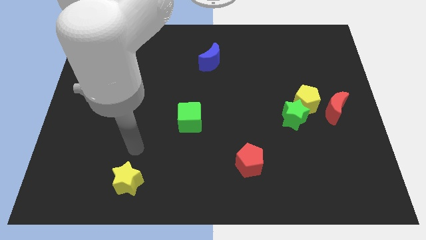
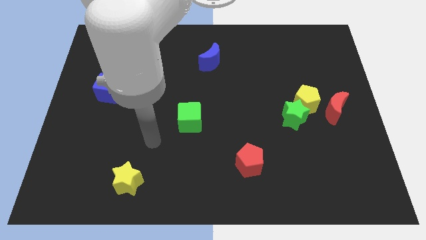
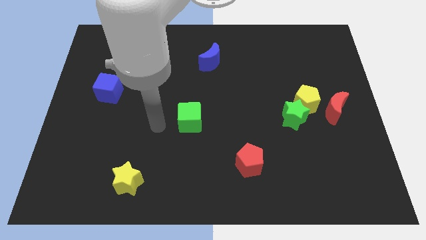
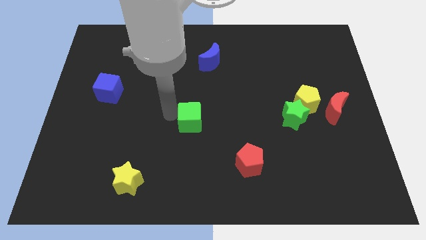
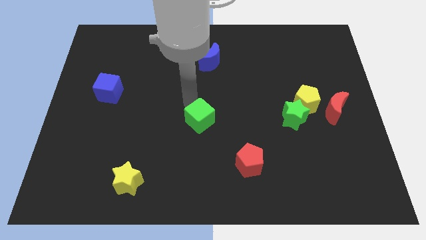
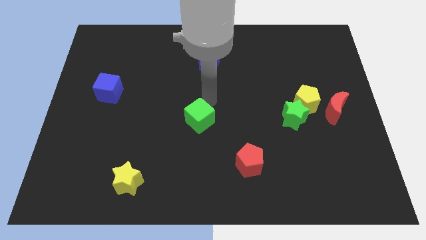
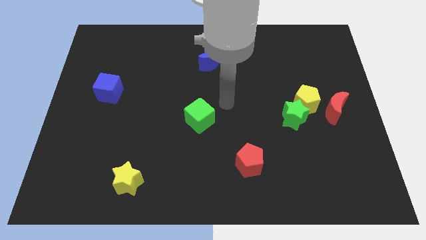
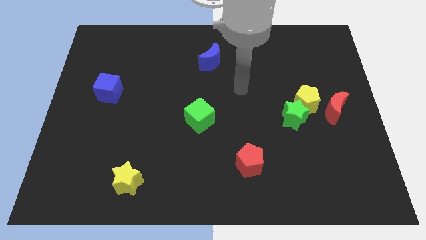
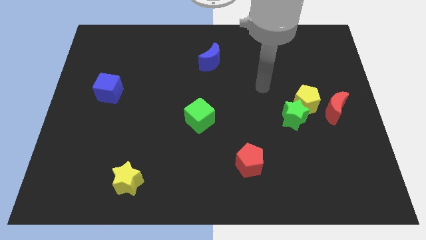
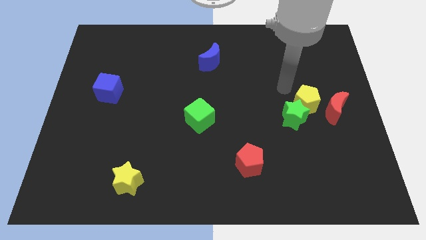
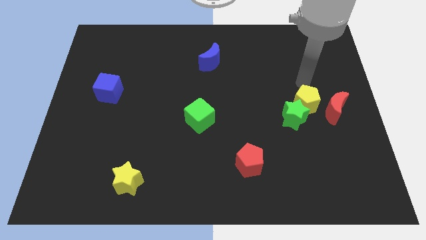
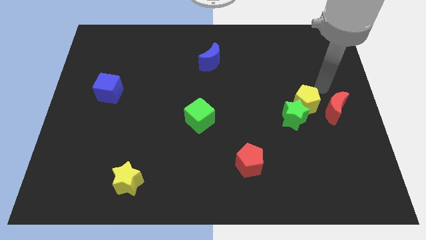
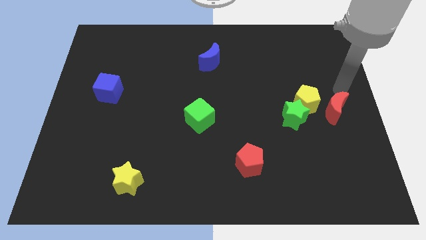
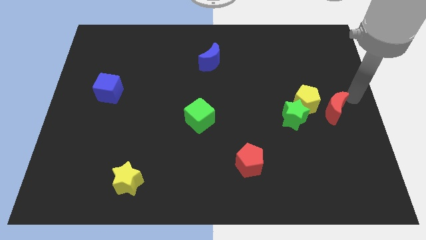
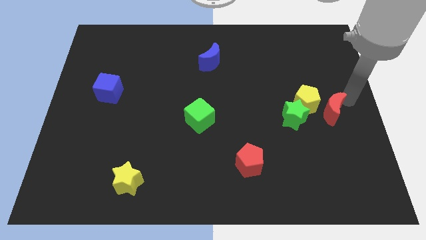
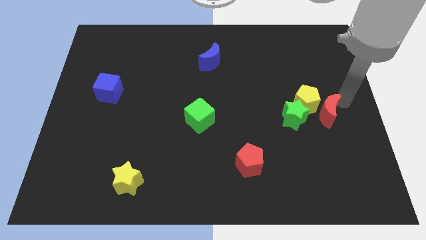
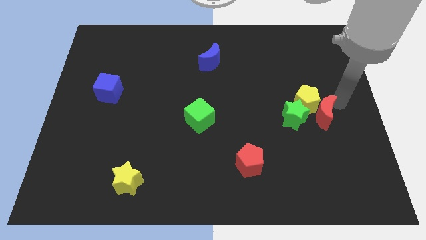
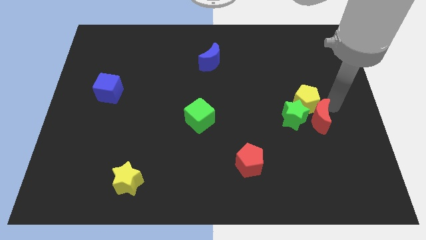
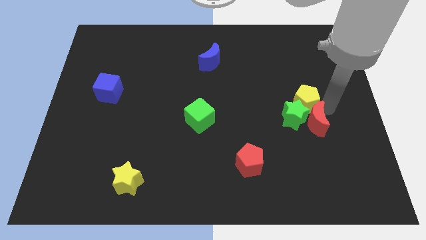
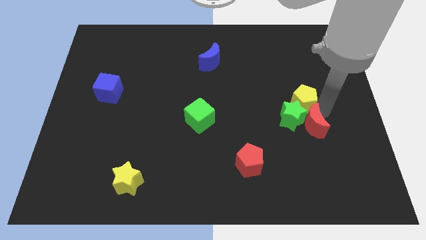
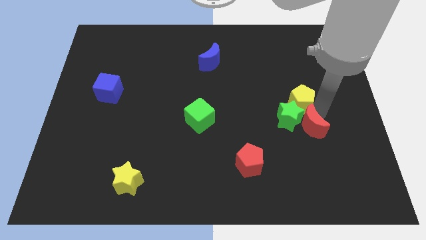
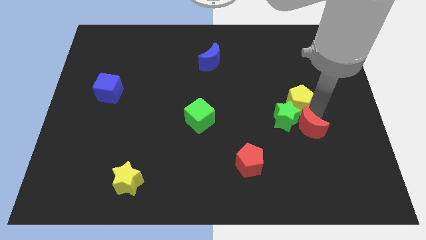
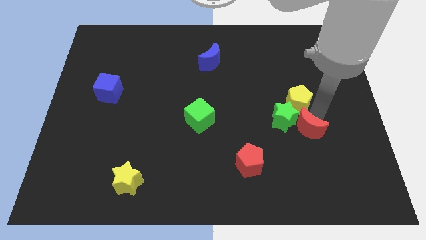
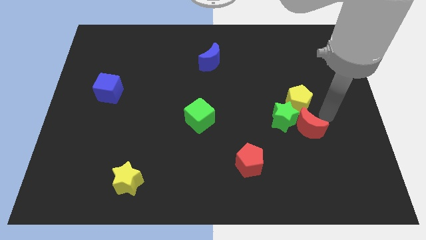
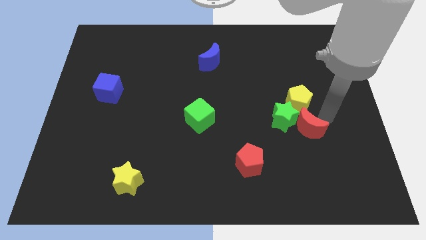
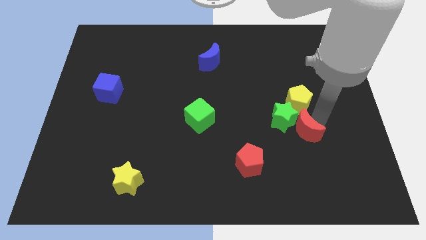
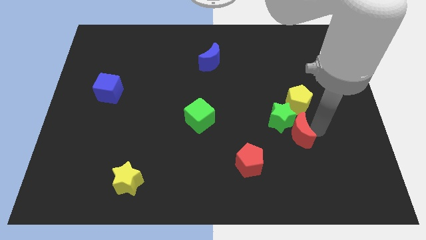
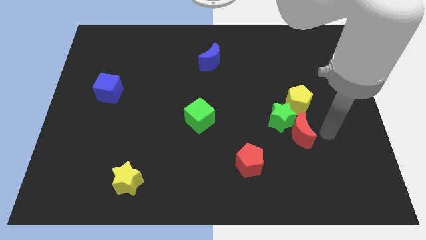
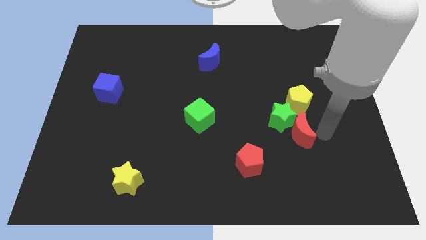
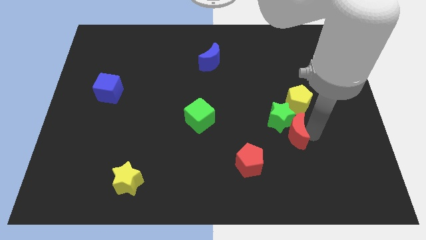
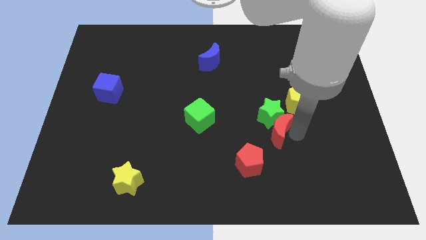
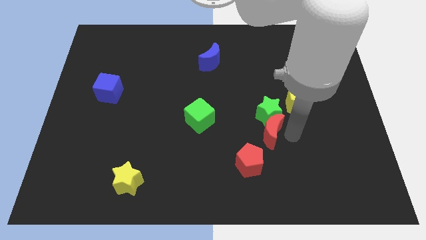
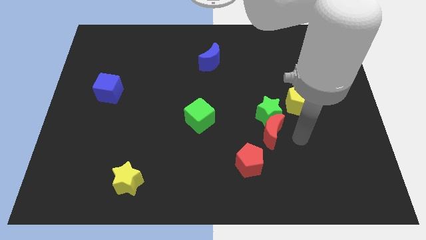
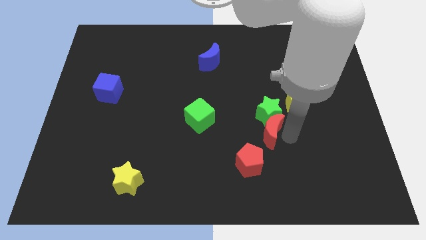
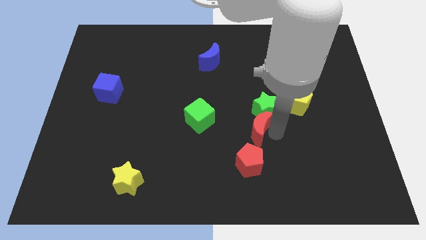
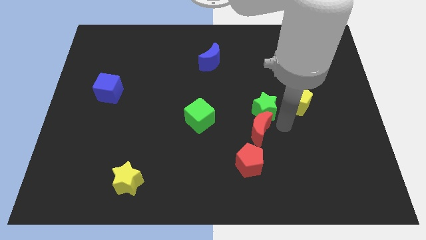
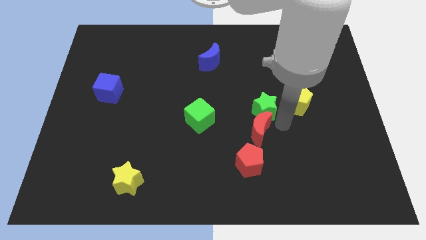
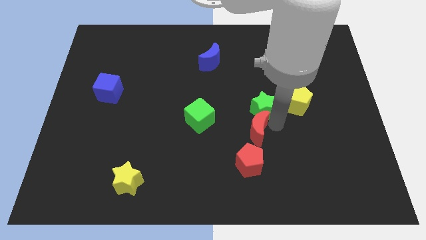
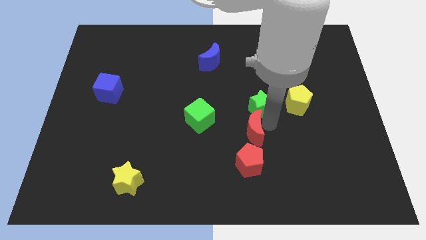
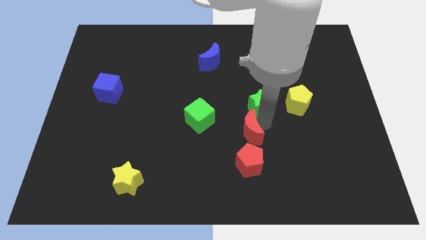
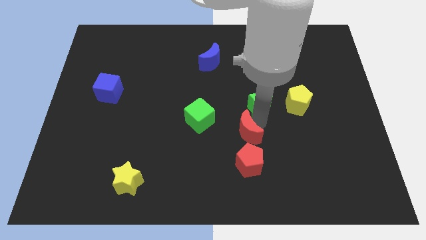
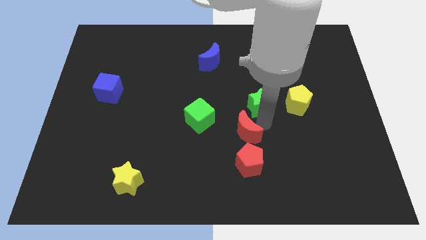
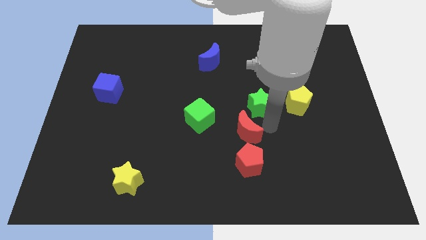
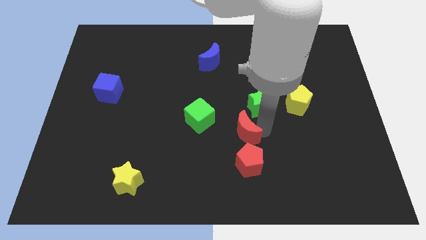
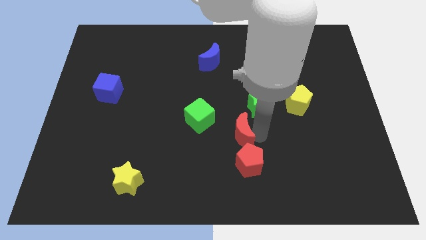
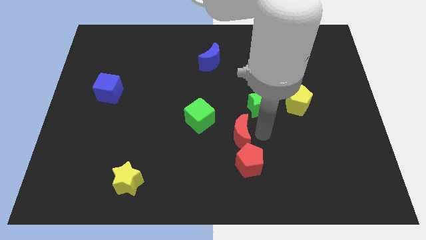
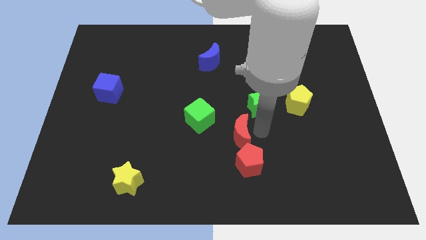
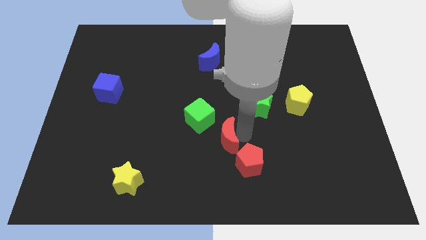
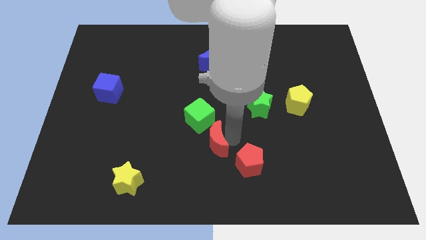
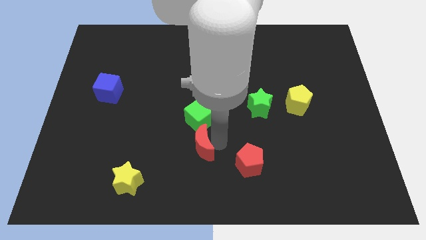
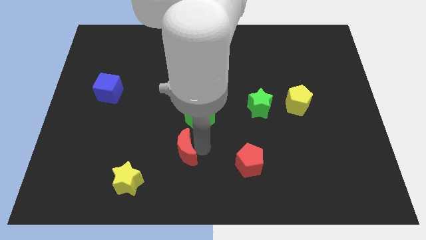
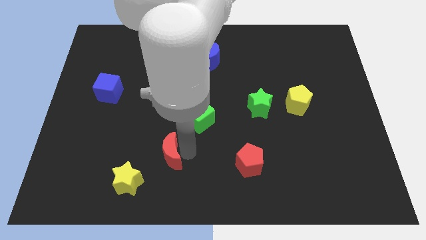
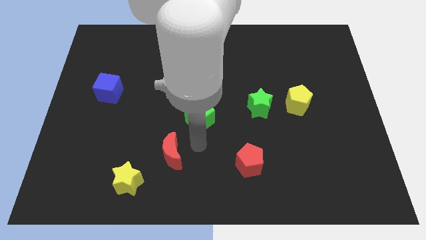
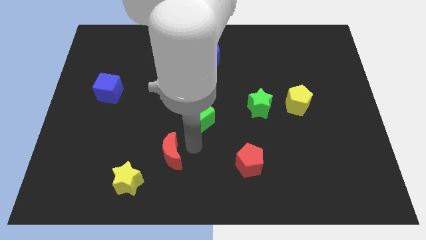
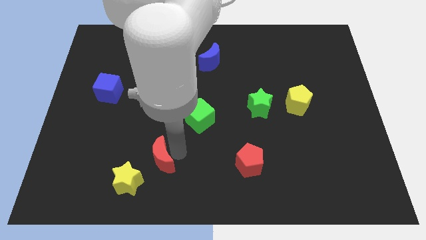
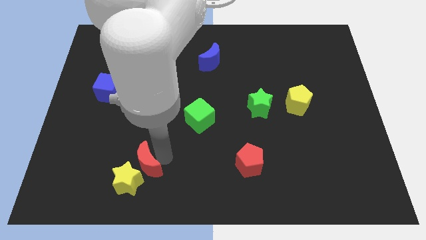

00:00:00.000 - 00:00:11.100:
push the red moon towards the yellow star

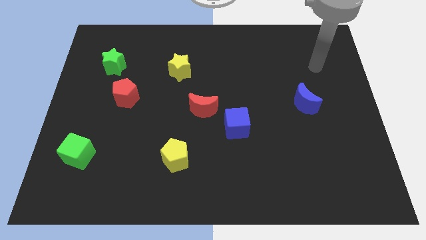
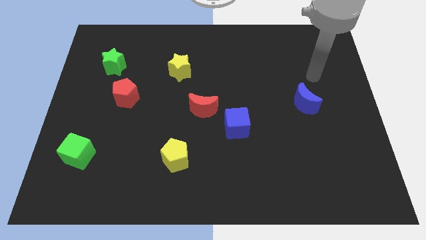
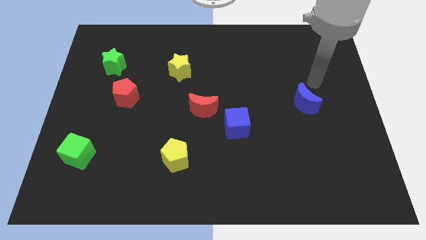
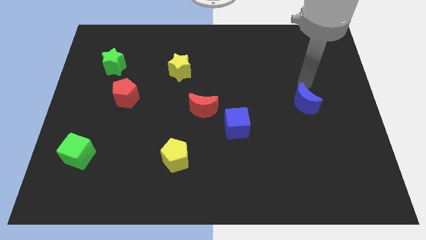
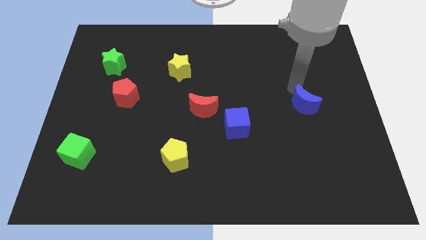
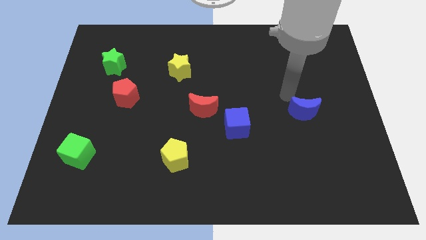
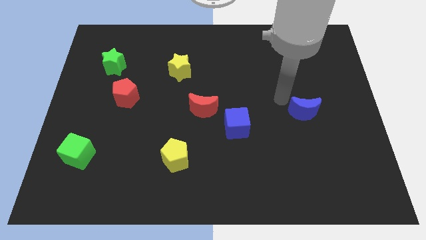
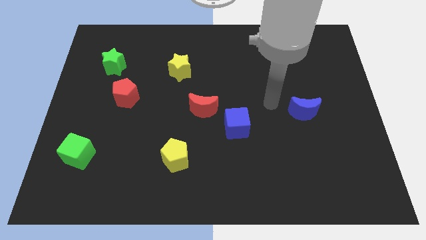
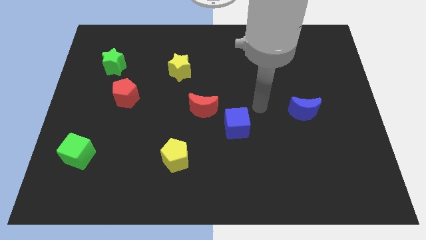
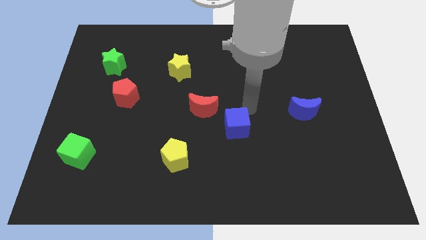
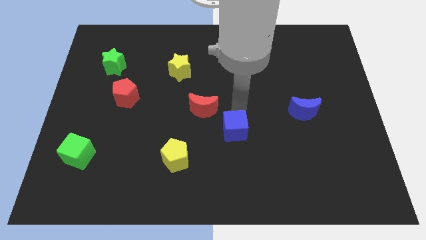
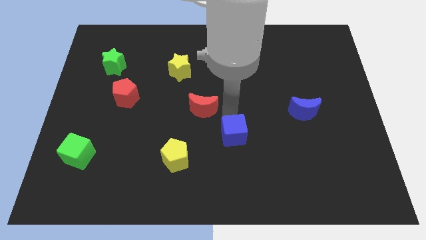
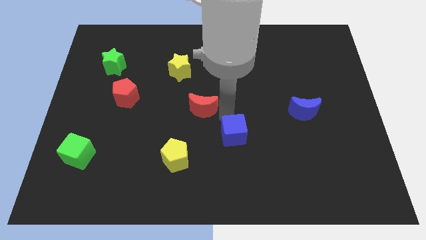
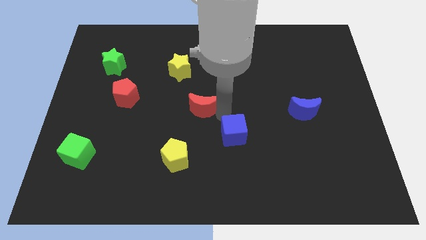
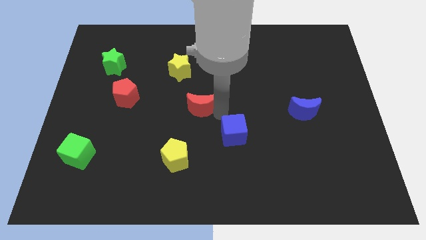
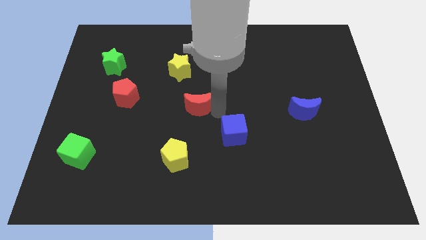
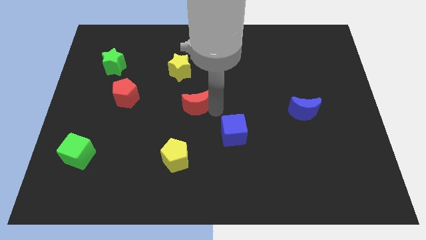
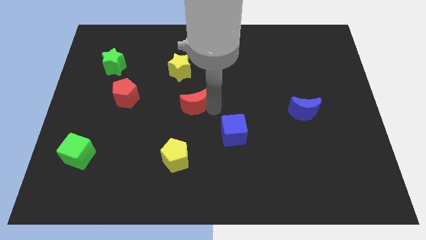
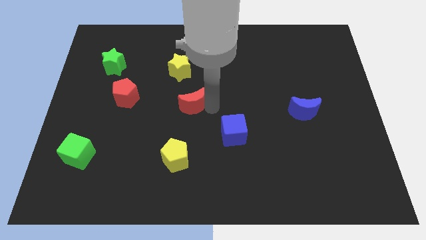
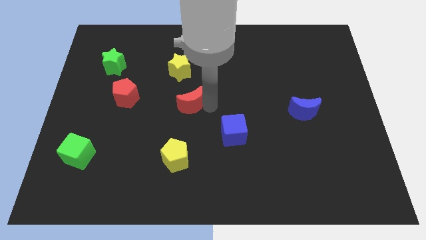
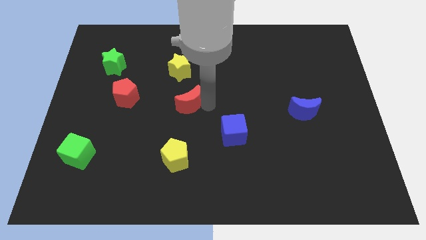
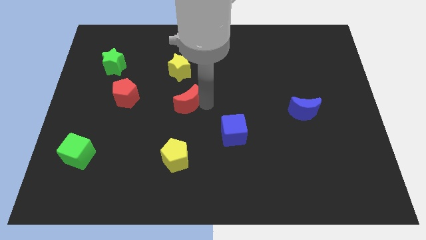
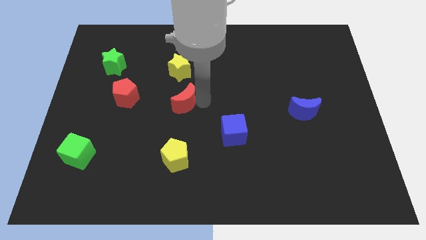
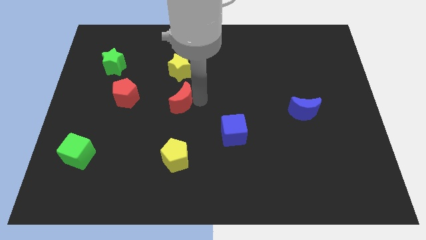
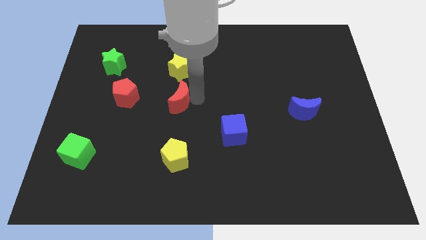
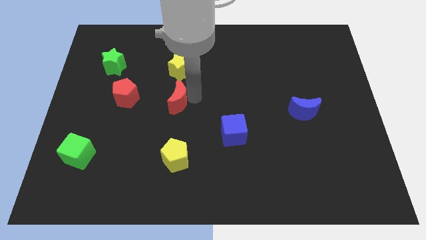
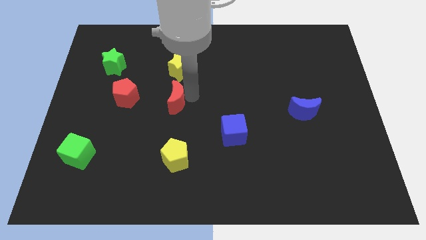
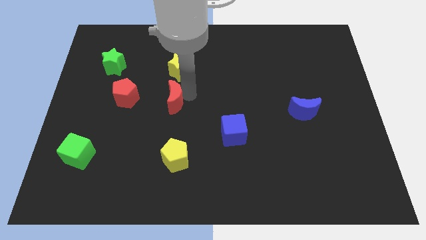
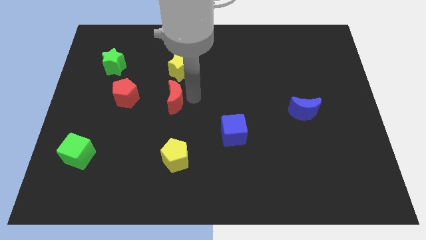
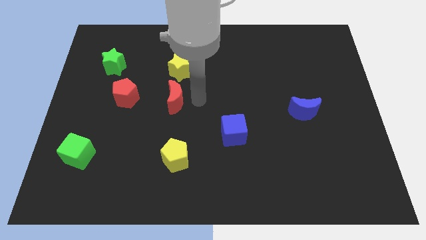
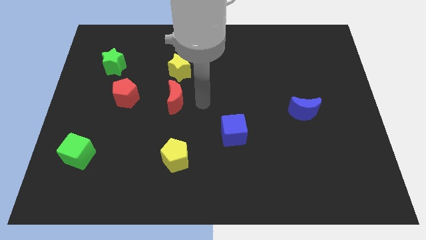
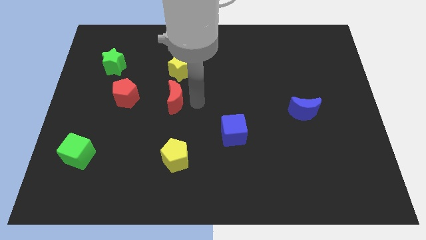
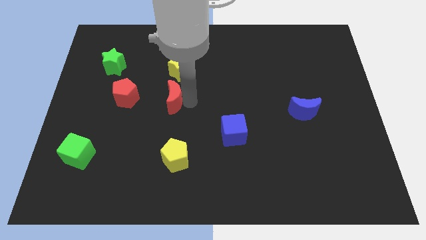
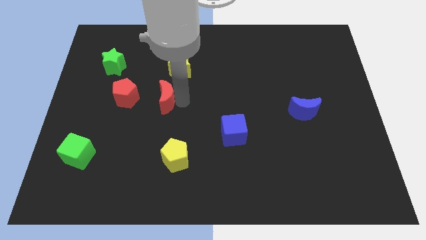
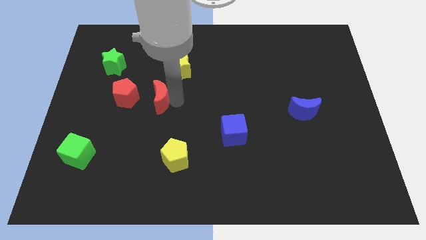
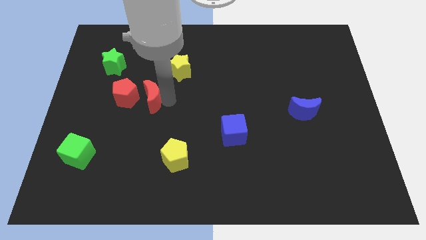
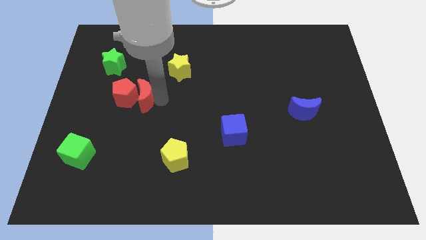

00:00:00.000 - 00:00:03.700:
push the red moon to the red pentagon
